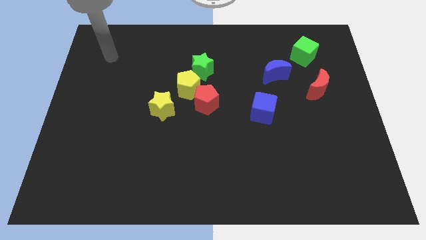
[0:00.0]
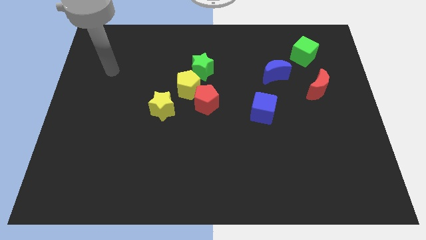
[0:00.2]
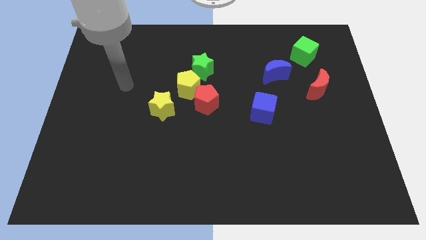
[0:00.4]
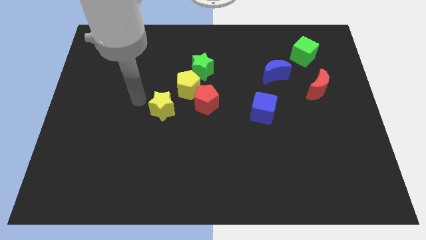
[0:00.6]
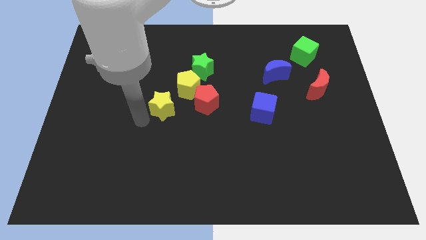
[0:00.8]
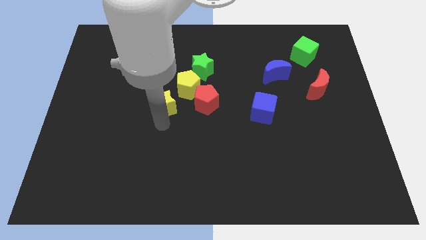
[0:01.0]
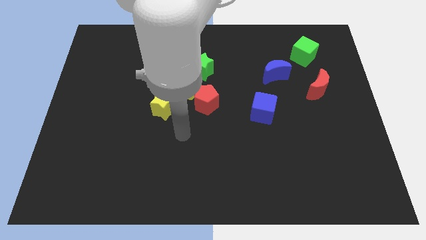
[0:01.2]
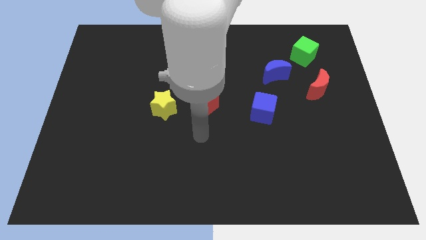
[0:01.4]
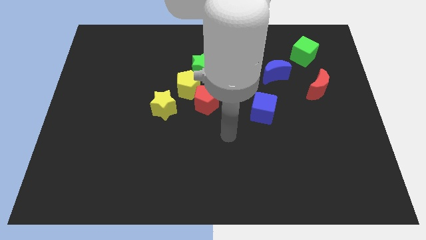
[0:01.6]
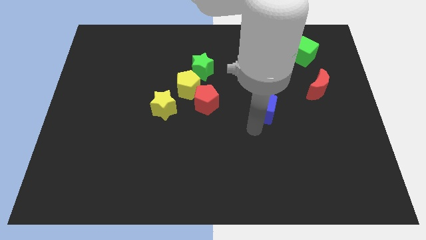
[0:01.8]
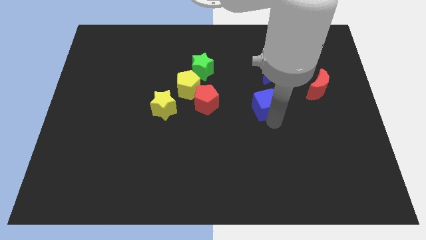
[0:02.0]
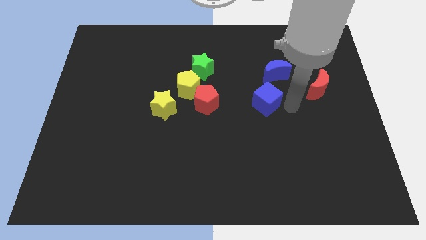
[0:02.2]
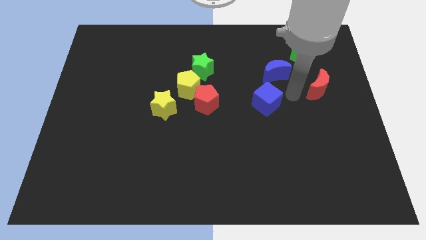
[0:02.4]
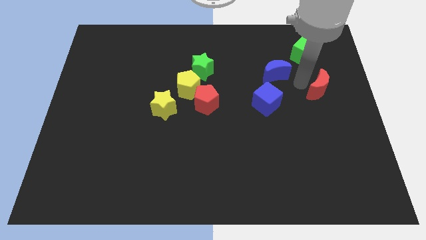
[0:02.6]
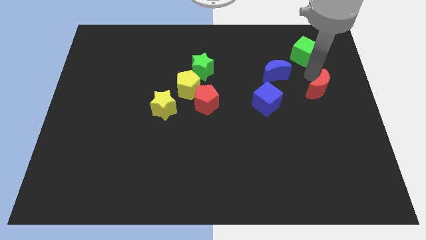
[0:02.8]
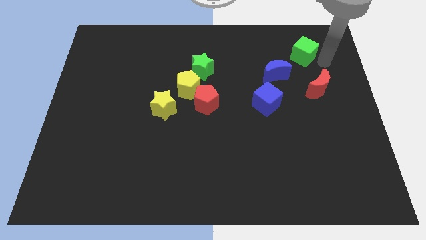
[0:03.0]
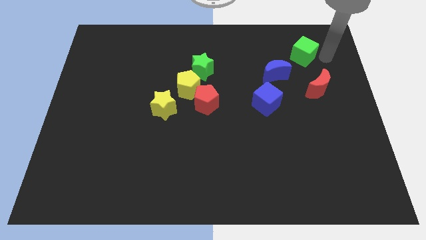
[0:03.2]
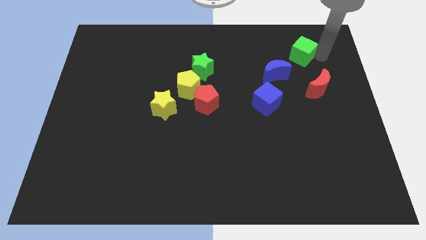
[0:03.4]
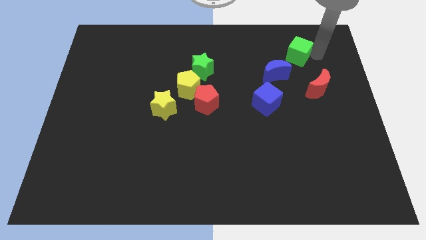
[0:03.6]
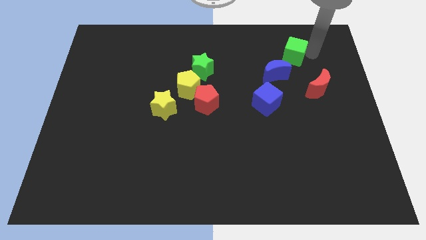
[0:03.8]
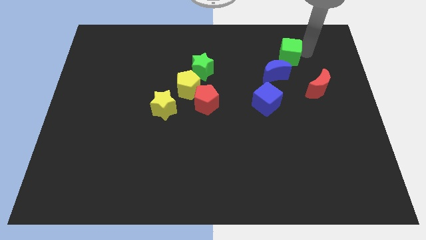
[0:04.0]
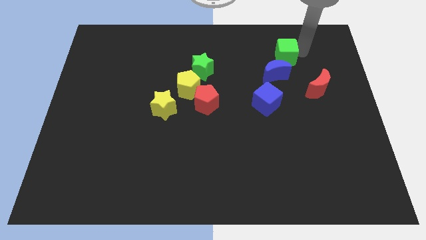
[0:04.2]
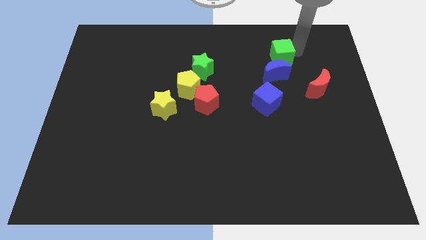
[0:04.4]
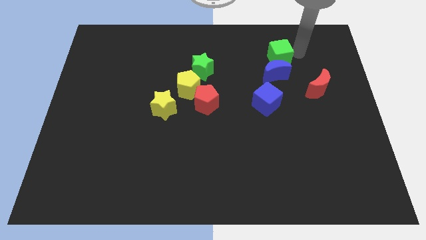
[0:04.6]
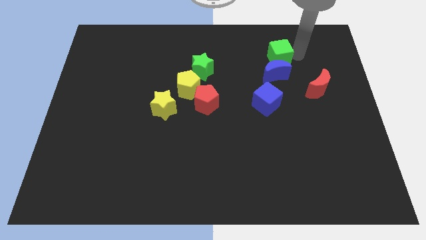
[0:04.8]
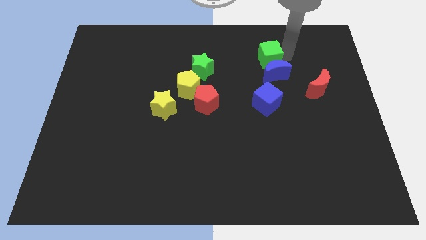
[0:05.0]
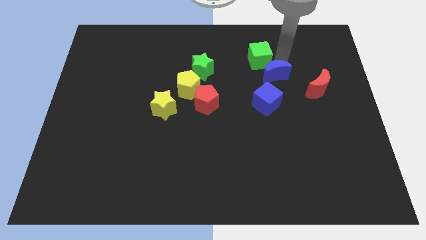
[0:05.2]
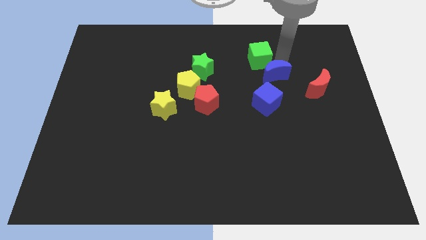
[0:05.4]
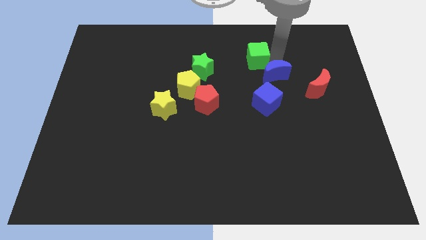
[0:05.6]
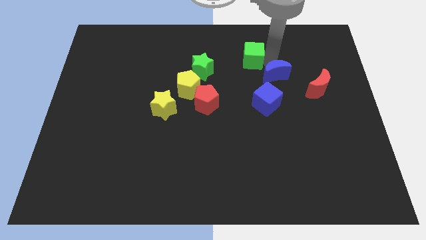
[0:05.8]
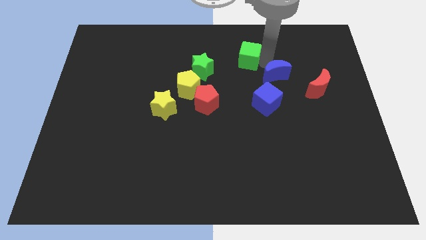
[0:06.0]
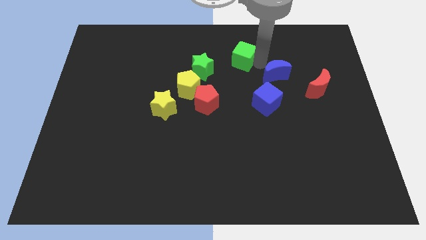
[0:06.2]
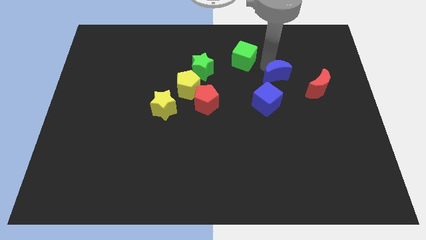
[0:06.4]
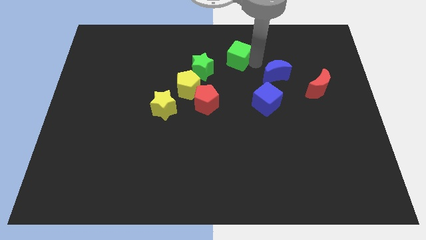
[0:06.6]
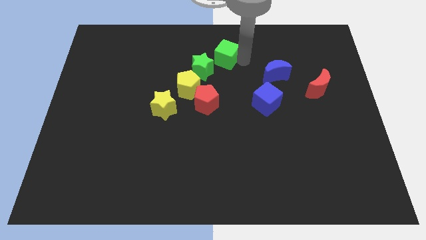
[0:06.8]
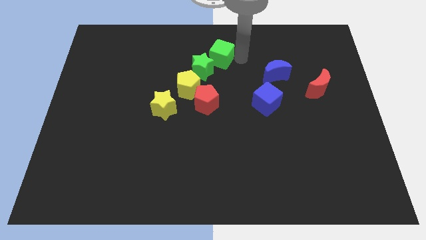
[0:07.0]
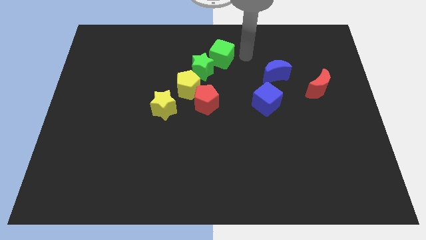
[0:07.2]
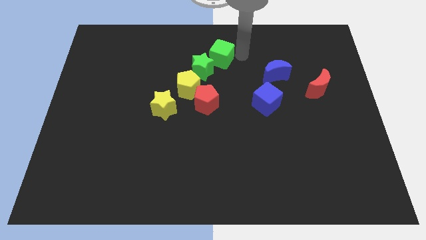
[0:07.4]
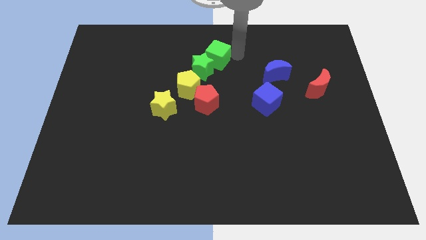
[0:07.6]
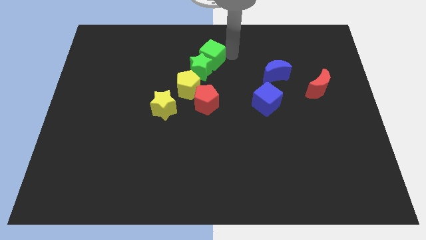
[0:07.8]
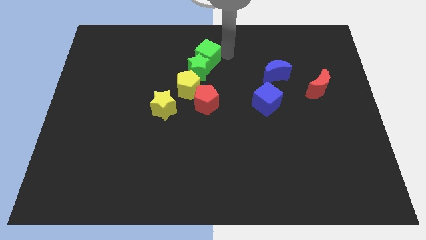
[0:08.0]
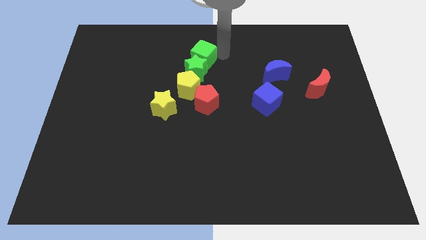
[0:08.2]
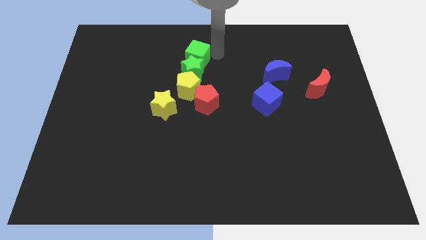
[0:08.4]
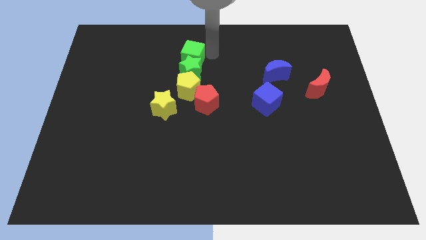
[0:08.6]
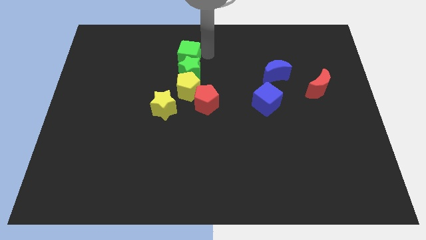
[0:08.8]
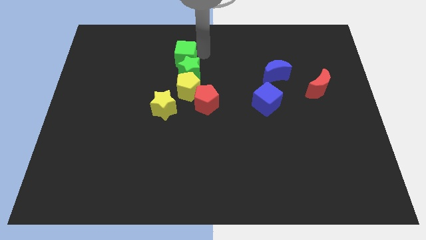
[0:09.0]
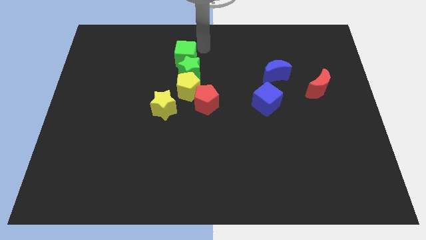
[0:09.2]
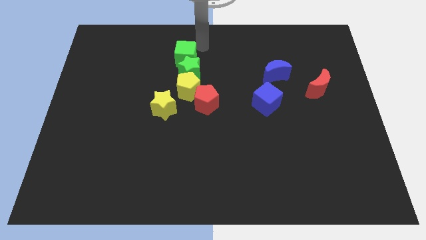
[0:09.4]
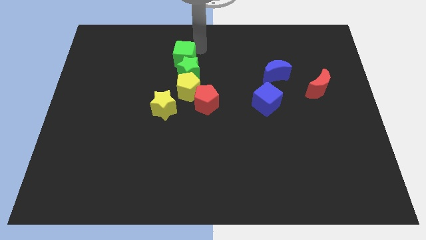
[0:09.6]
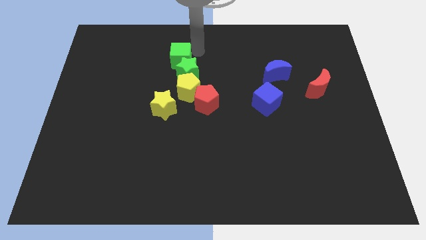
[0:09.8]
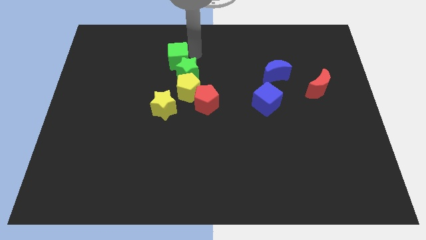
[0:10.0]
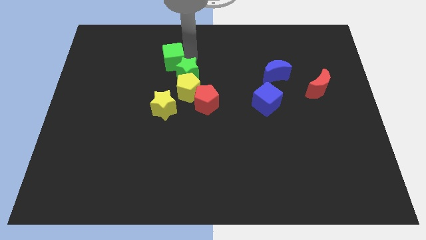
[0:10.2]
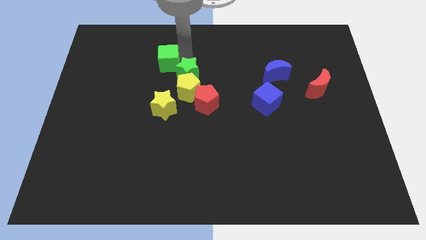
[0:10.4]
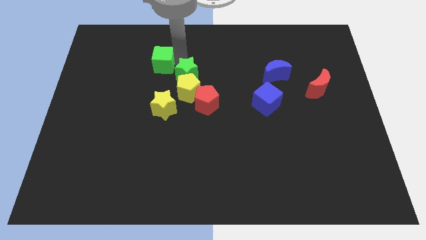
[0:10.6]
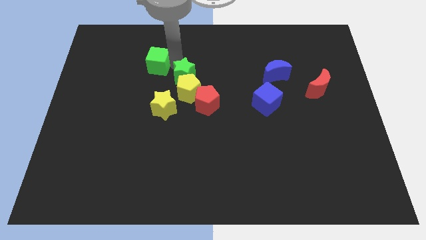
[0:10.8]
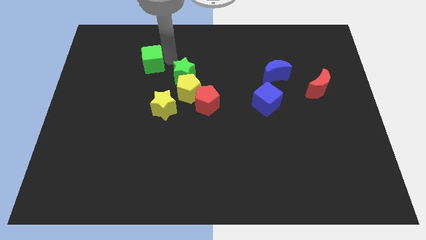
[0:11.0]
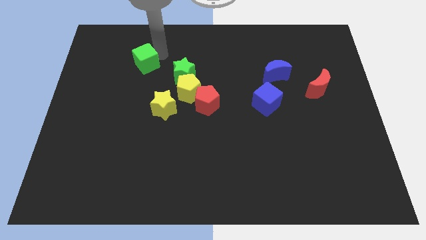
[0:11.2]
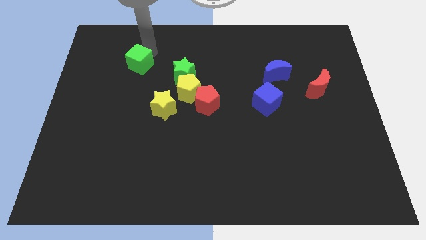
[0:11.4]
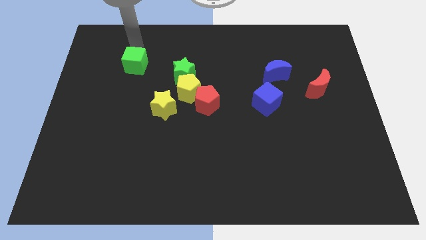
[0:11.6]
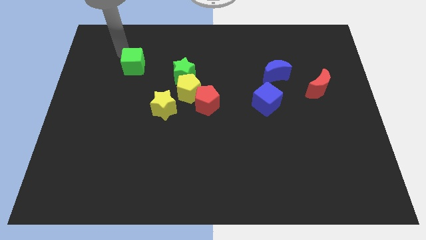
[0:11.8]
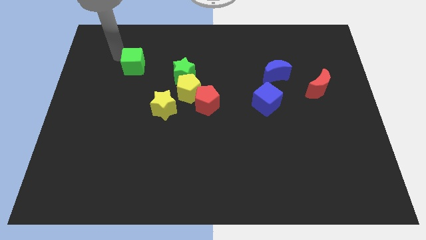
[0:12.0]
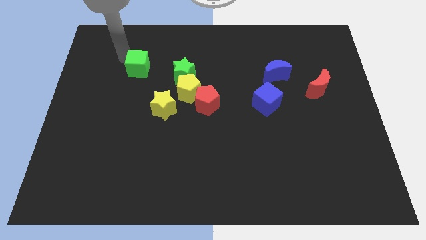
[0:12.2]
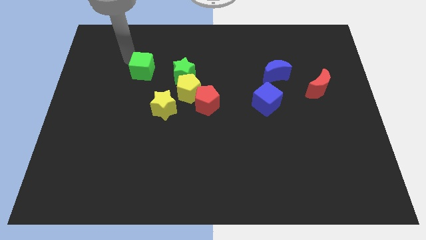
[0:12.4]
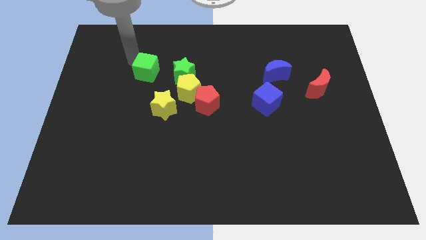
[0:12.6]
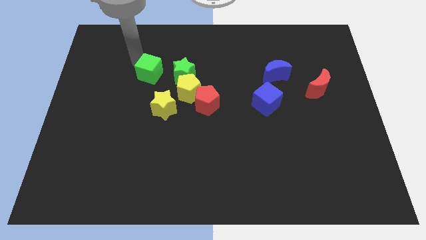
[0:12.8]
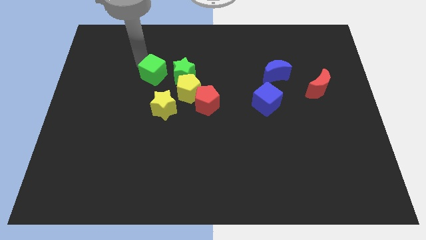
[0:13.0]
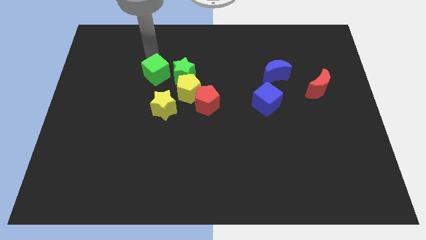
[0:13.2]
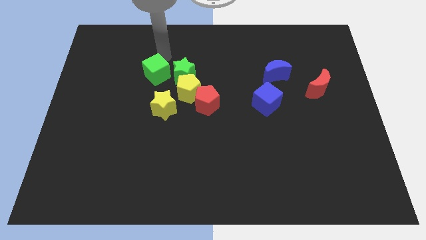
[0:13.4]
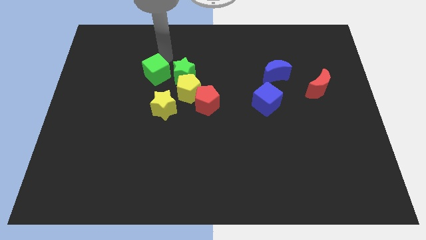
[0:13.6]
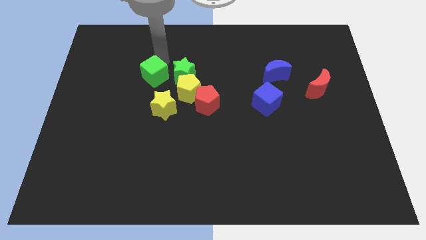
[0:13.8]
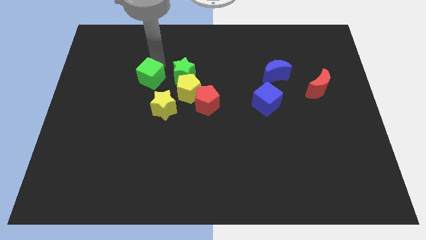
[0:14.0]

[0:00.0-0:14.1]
move the green cube to the left of the yellow pentagon

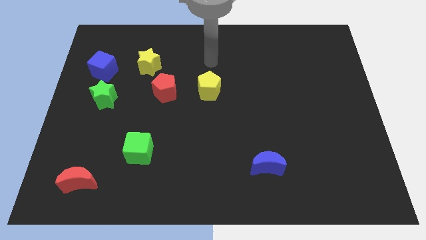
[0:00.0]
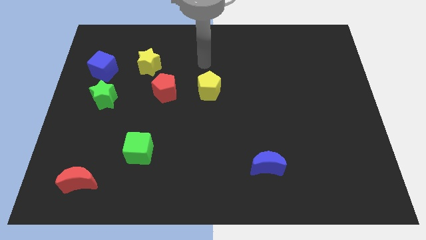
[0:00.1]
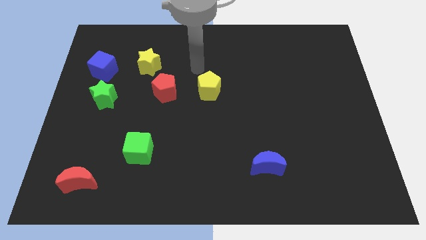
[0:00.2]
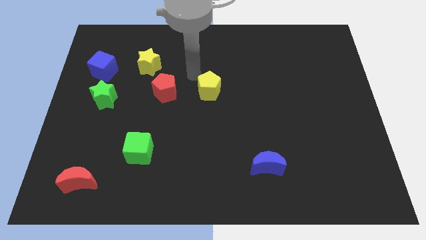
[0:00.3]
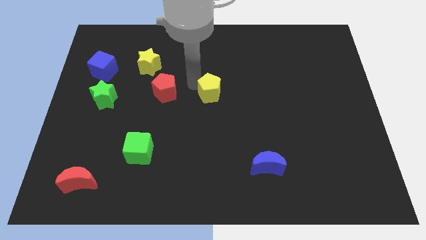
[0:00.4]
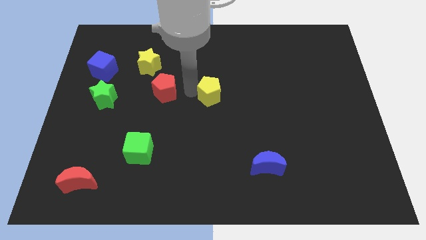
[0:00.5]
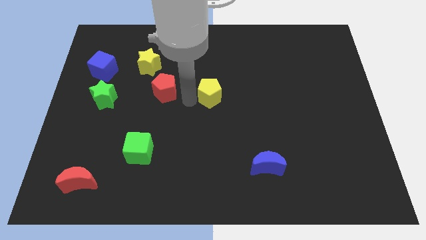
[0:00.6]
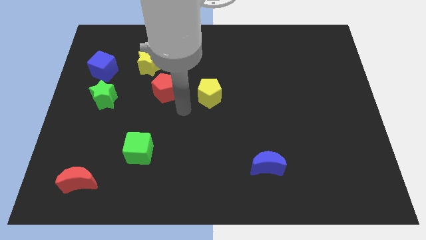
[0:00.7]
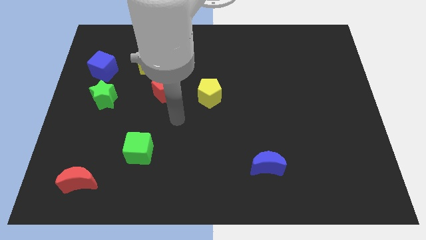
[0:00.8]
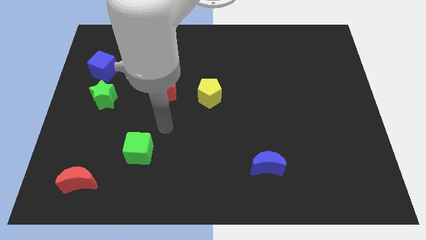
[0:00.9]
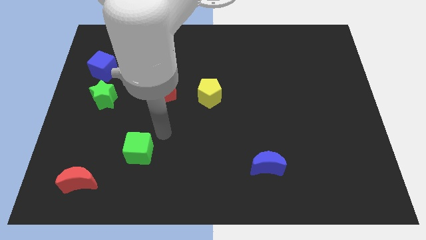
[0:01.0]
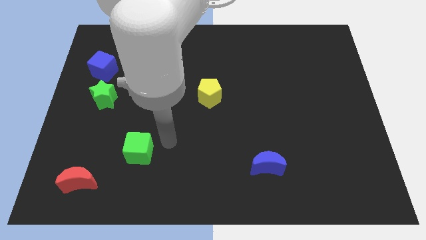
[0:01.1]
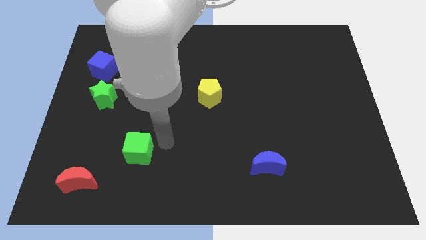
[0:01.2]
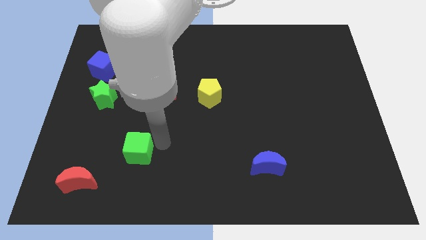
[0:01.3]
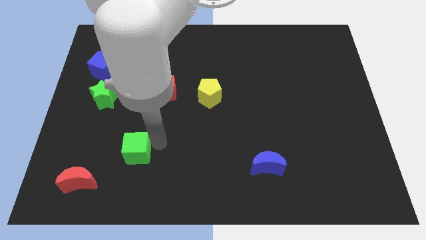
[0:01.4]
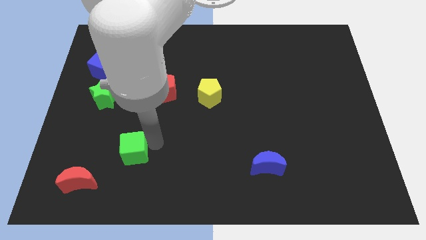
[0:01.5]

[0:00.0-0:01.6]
move the green cube to the top right of the red moon
